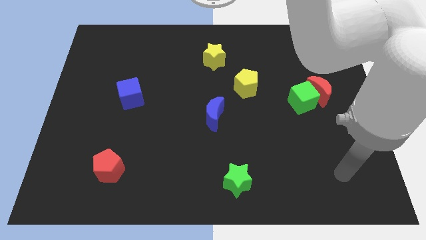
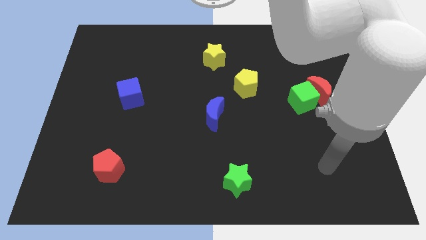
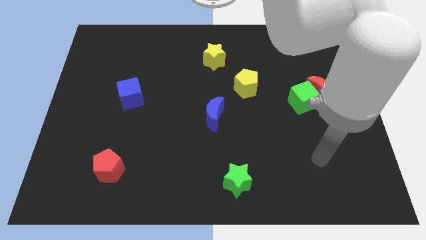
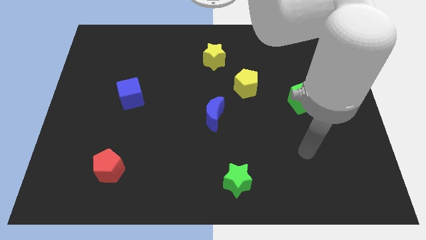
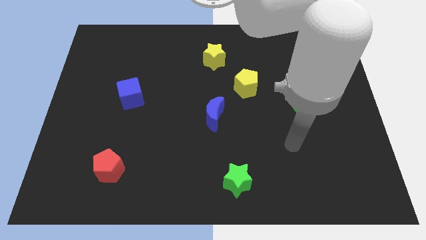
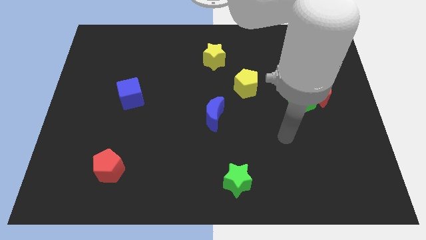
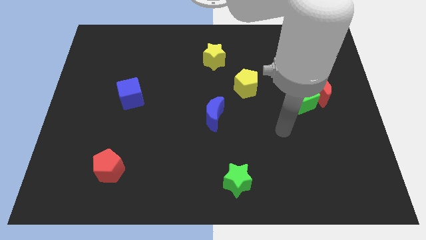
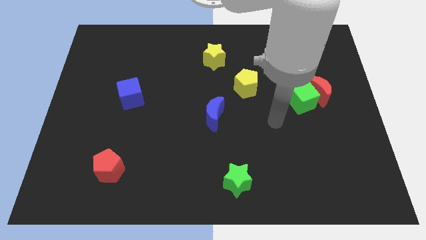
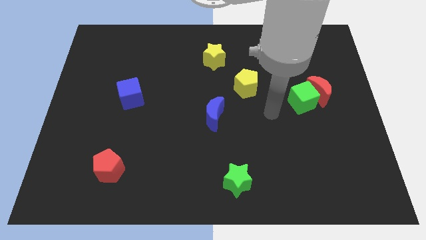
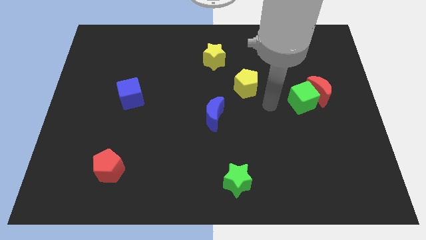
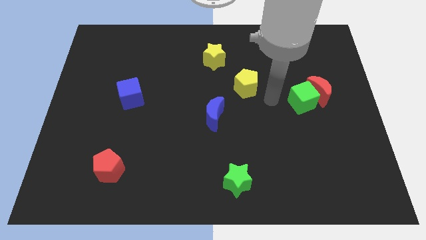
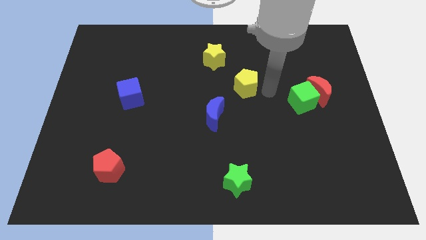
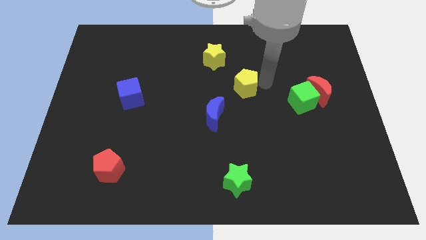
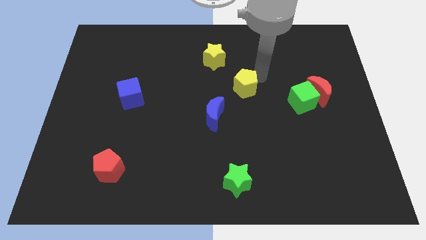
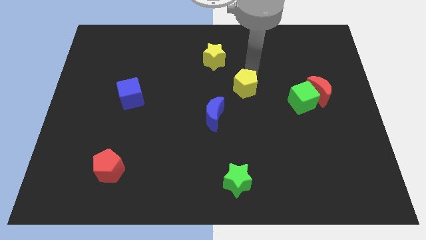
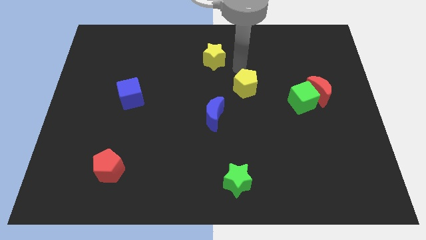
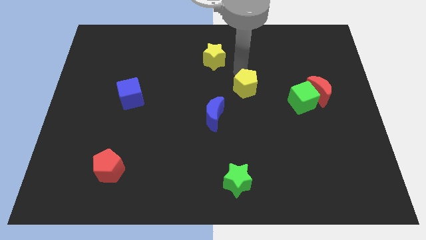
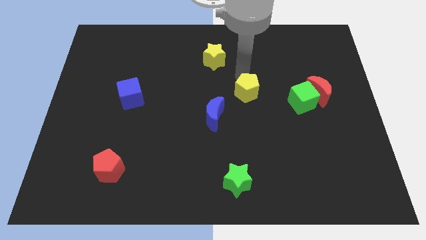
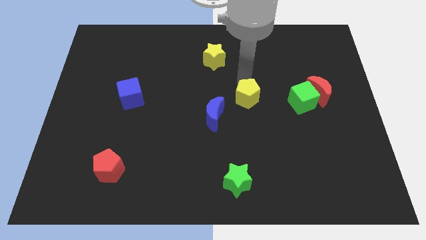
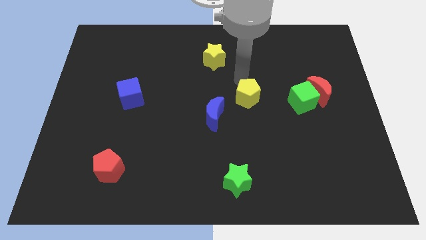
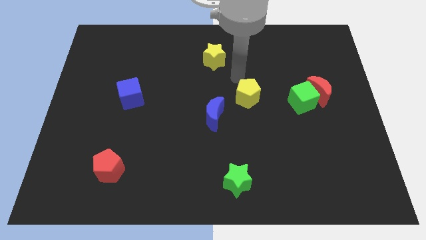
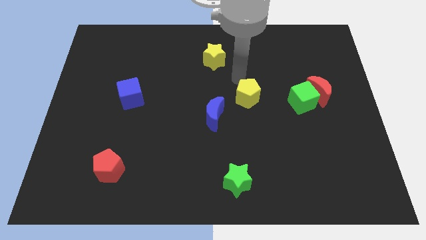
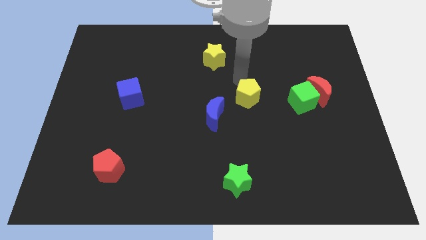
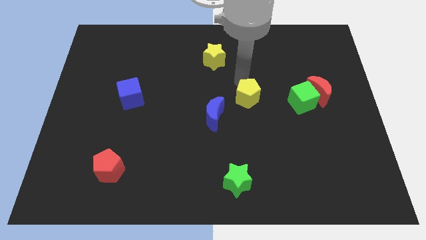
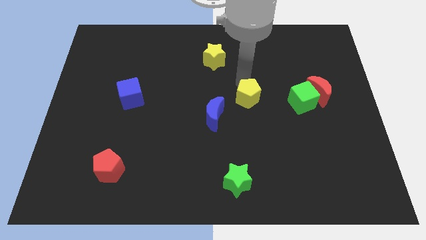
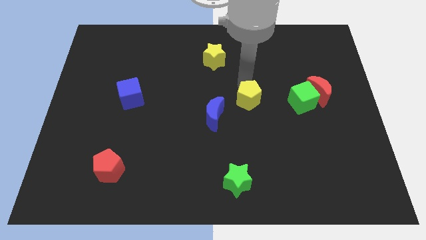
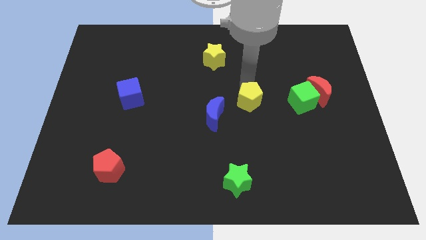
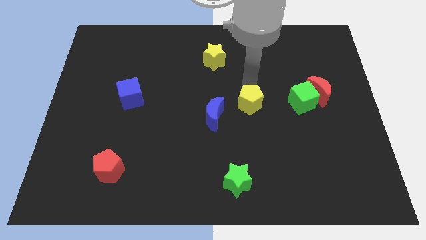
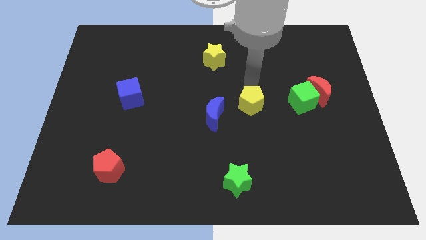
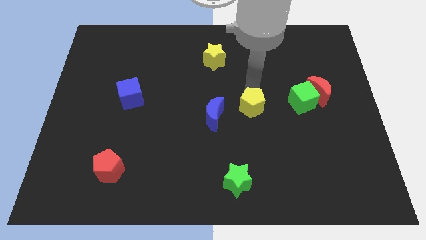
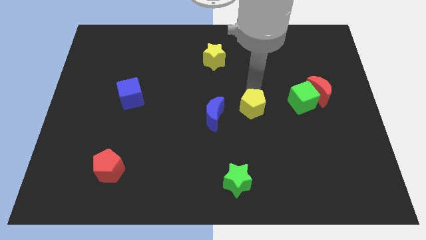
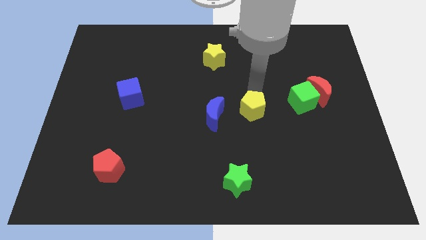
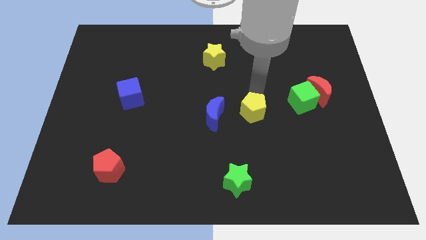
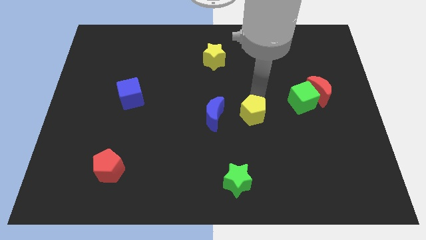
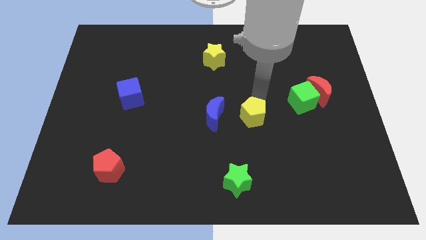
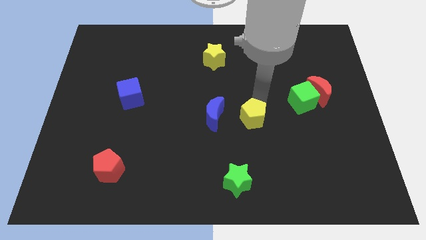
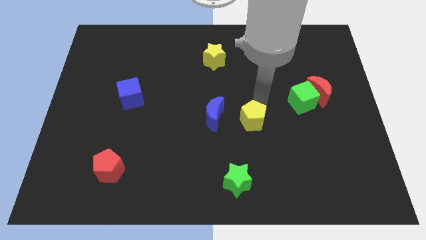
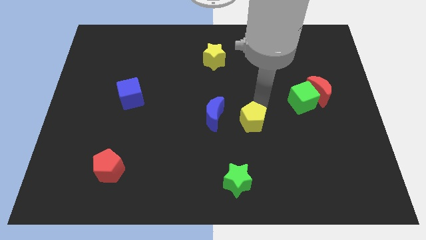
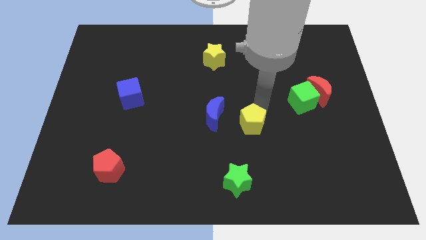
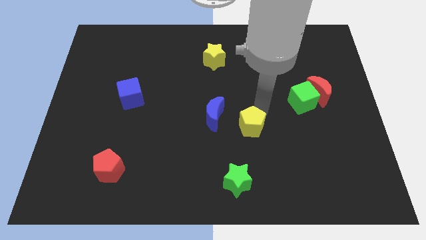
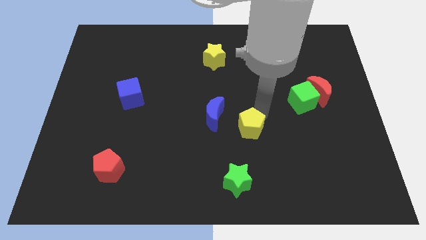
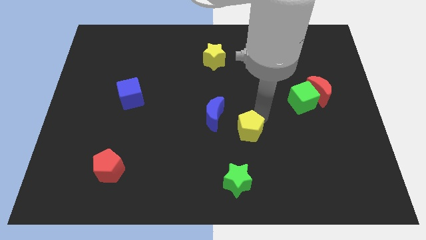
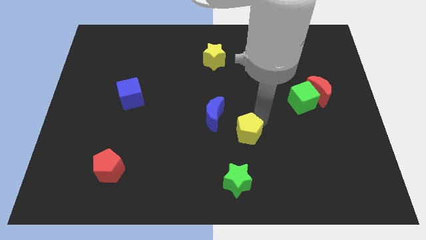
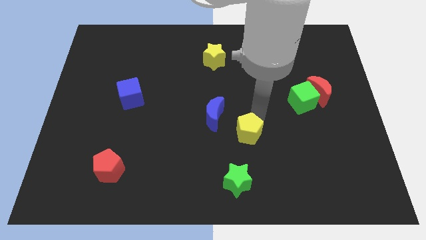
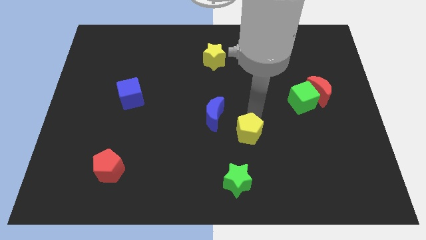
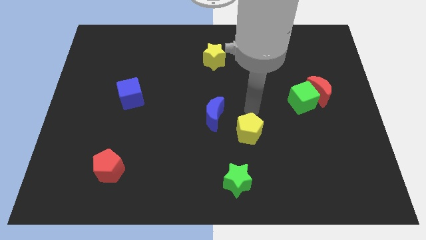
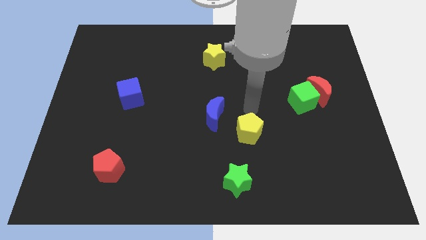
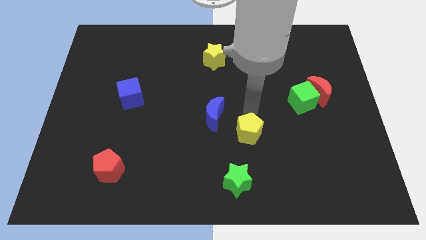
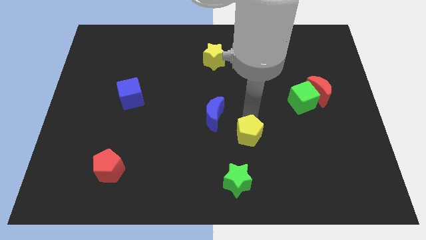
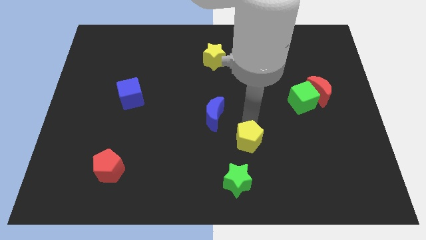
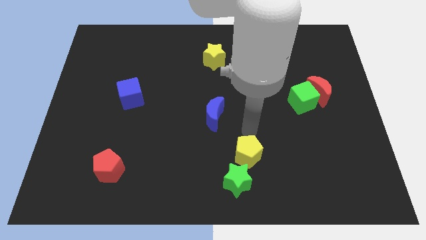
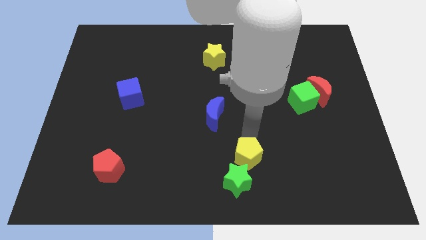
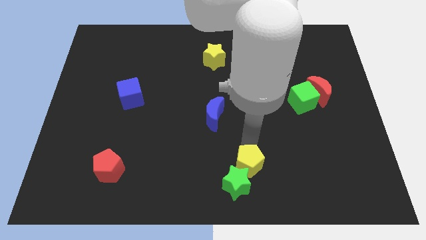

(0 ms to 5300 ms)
push the yellow pentagon next to the green star

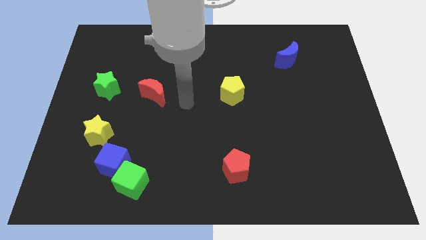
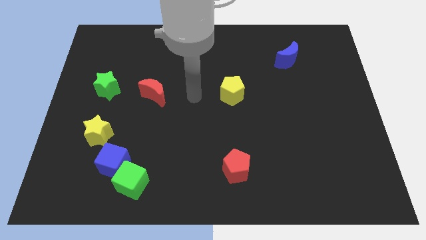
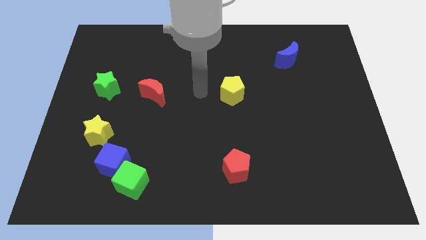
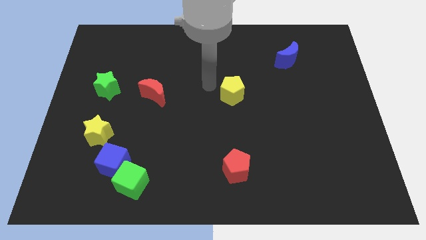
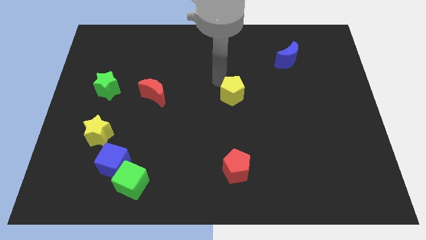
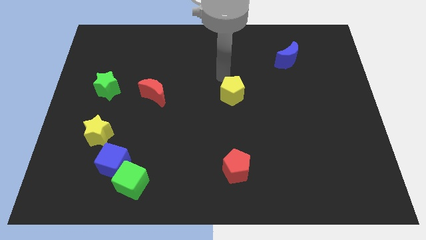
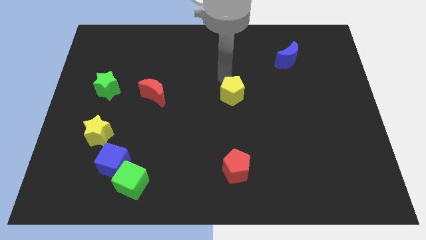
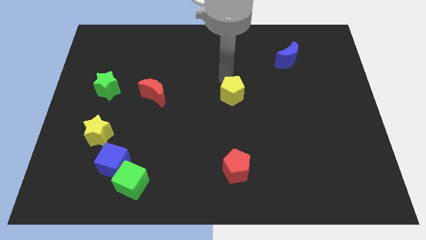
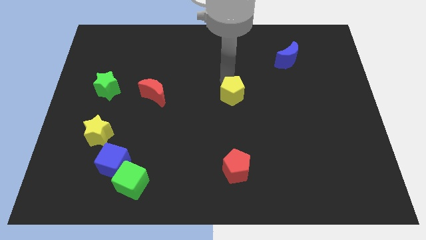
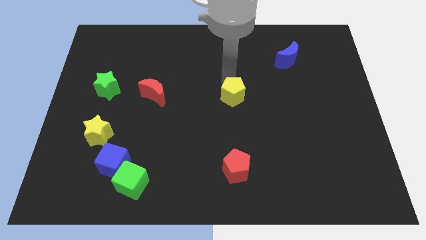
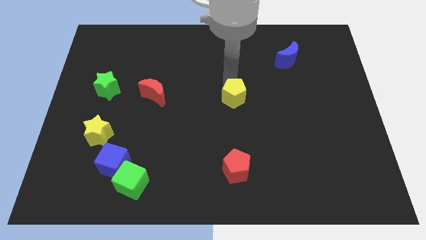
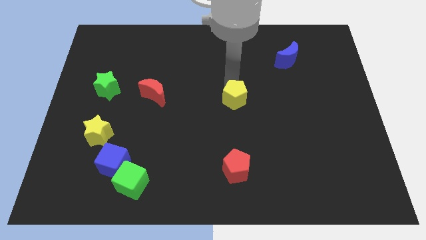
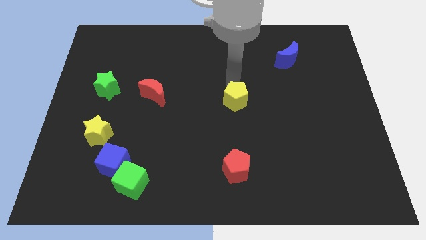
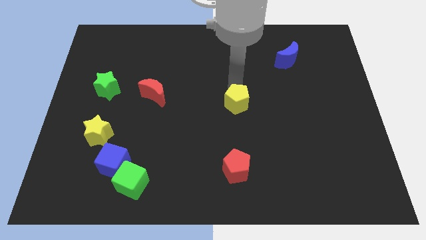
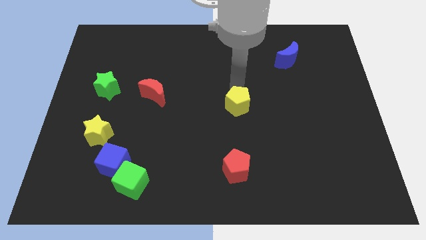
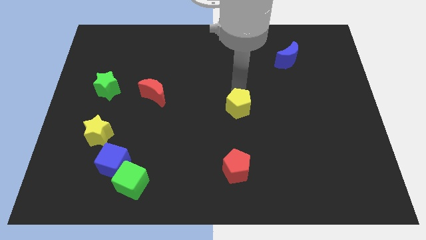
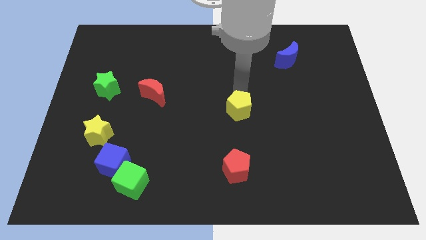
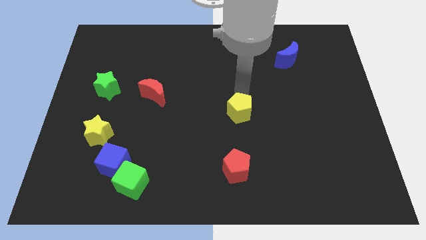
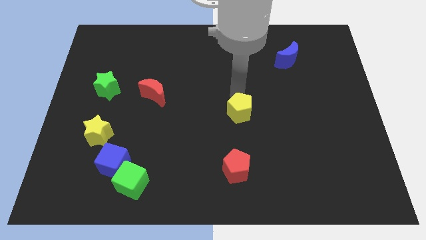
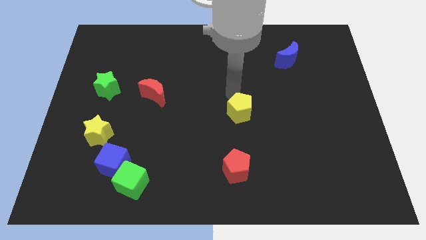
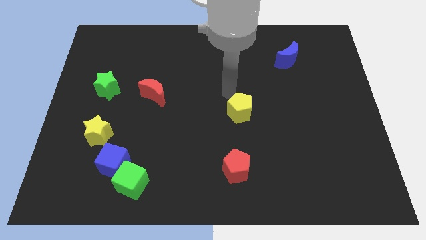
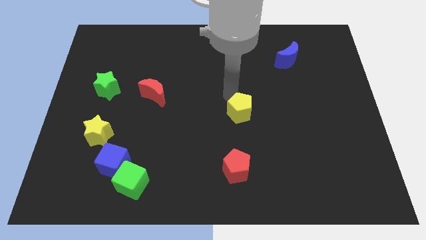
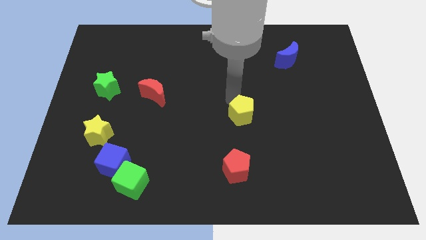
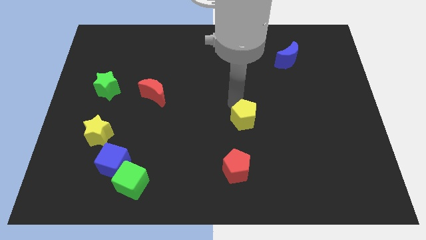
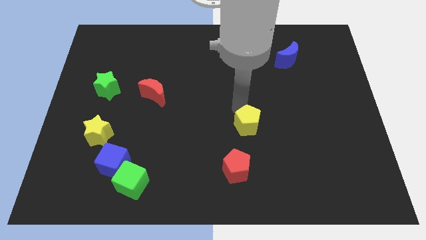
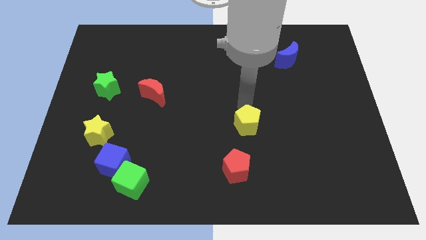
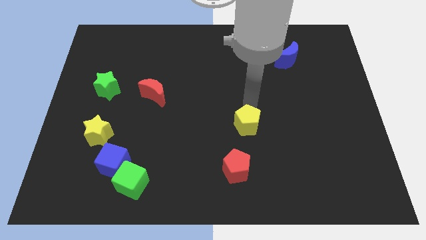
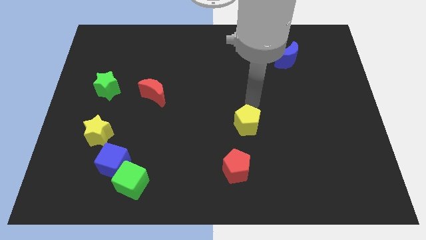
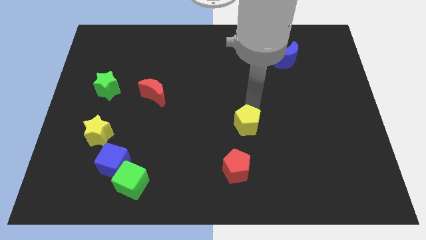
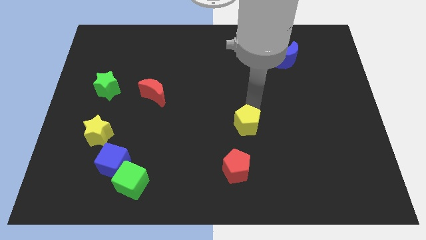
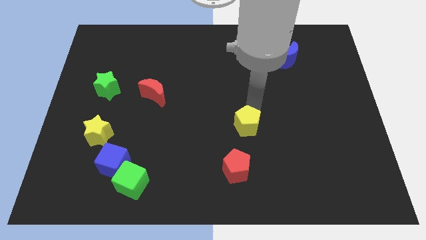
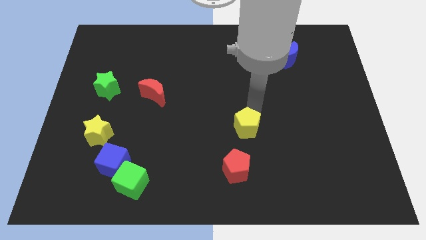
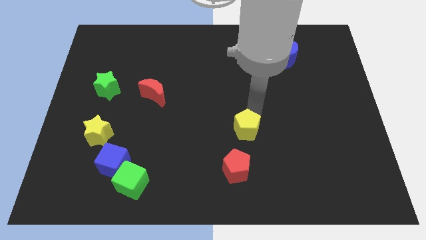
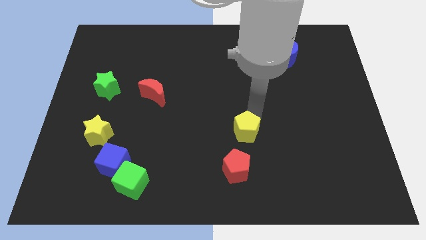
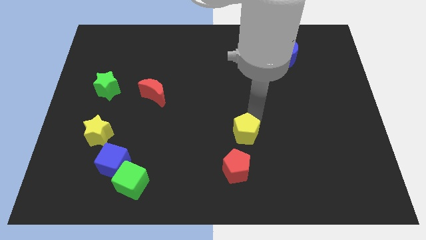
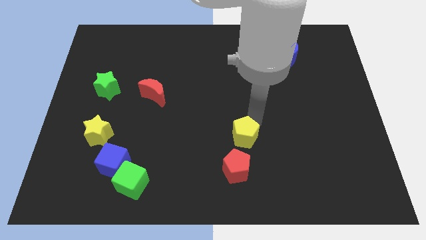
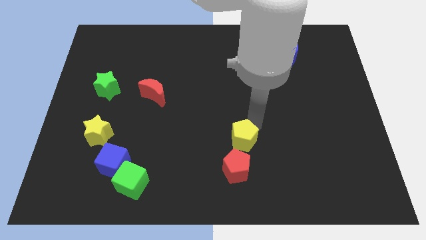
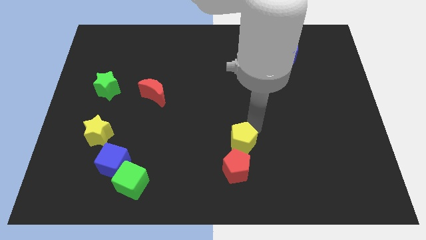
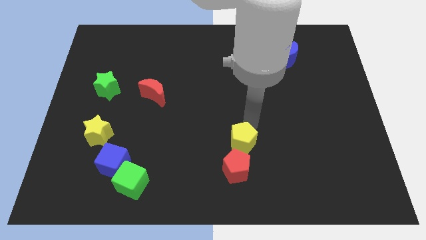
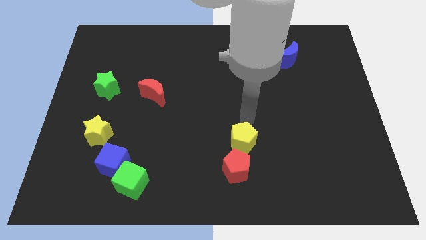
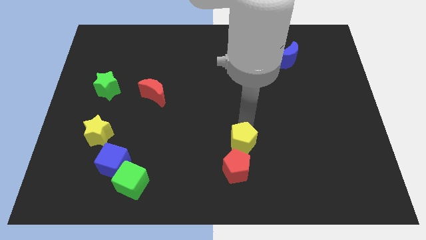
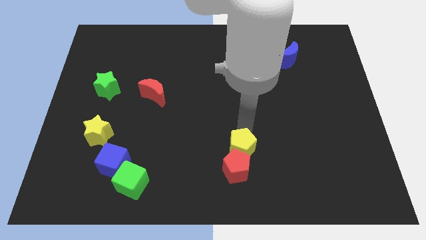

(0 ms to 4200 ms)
move the yellow pentagon to the red pentagon
